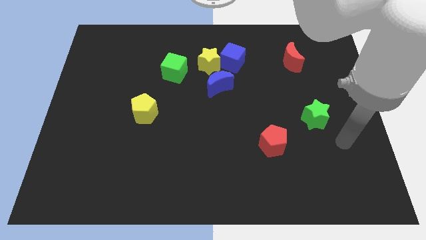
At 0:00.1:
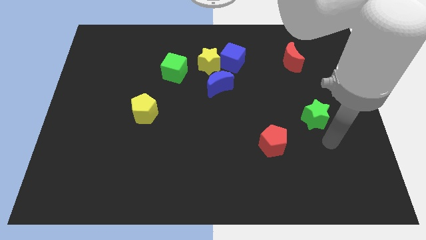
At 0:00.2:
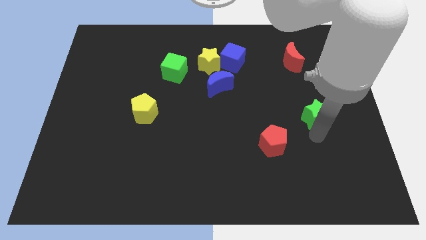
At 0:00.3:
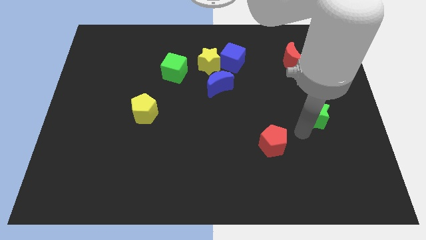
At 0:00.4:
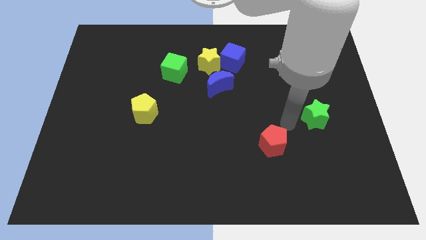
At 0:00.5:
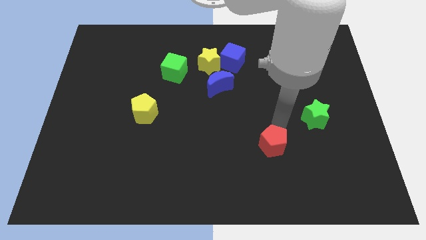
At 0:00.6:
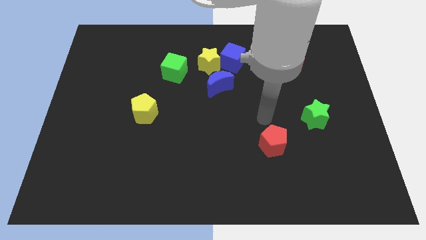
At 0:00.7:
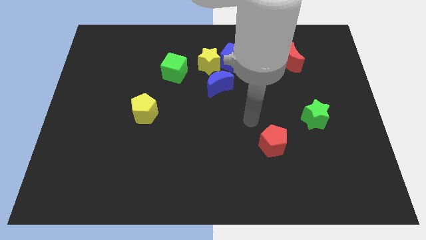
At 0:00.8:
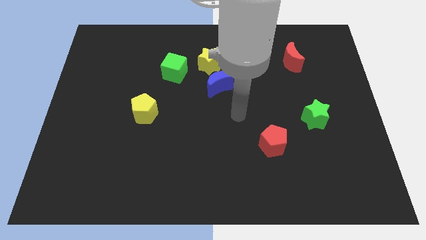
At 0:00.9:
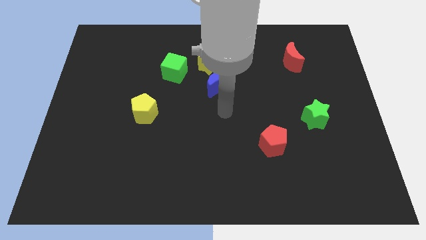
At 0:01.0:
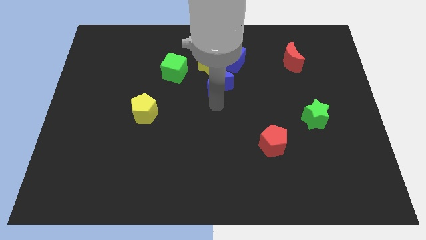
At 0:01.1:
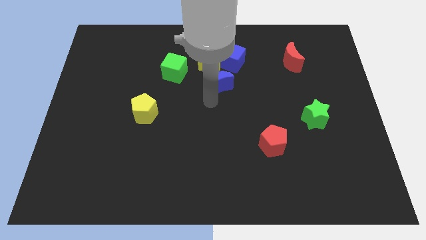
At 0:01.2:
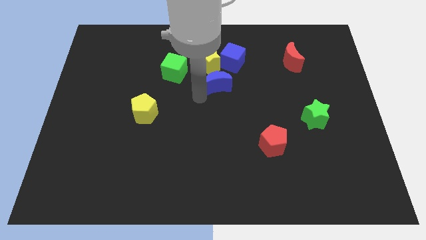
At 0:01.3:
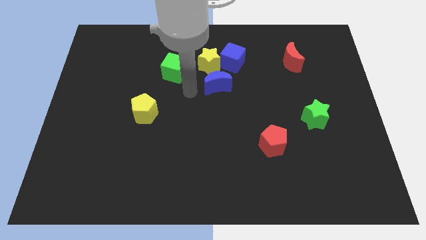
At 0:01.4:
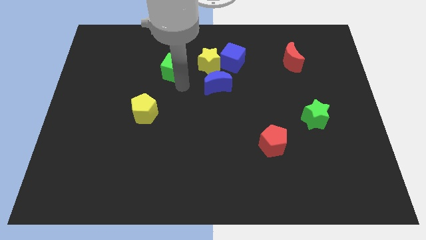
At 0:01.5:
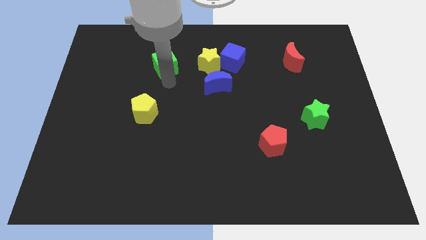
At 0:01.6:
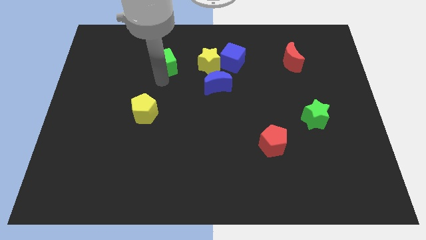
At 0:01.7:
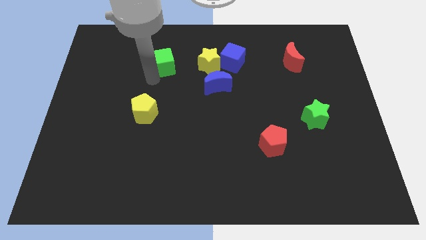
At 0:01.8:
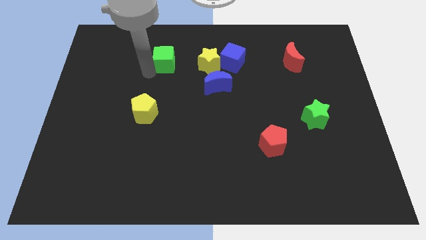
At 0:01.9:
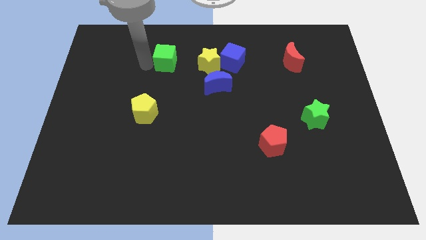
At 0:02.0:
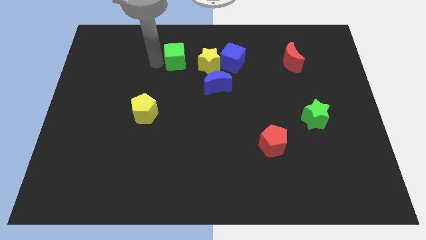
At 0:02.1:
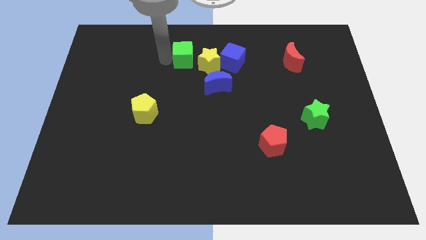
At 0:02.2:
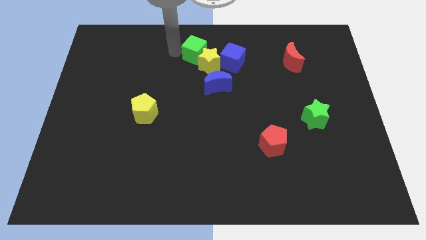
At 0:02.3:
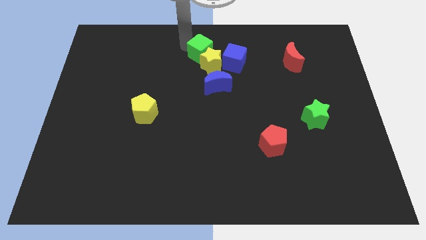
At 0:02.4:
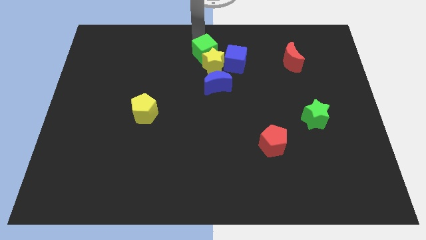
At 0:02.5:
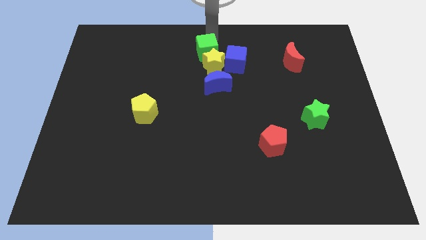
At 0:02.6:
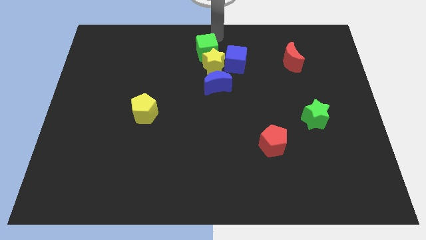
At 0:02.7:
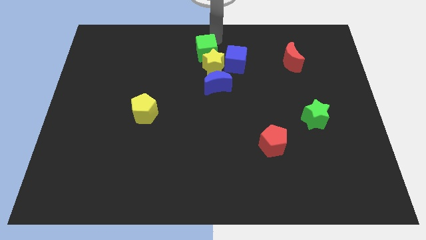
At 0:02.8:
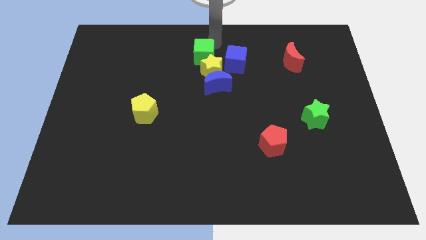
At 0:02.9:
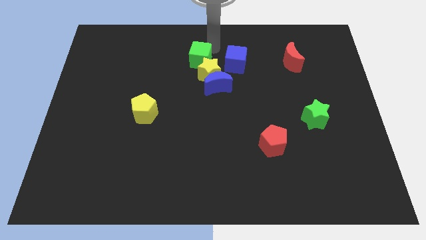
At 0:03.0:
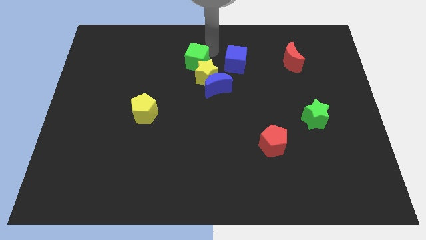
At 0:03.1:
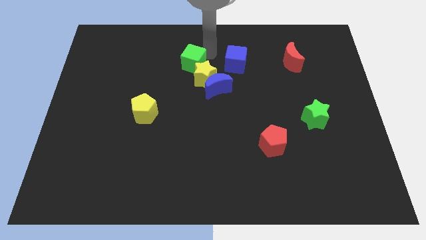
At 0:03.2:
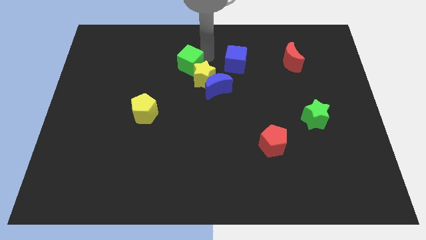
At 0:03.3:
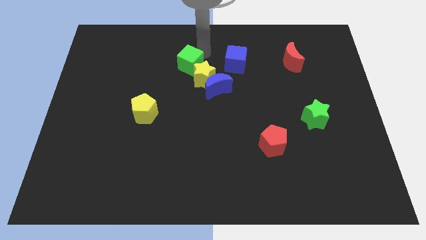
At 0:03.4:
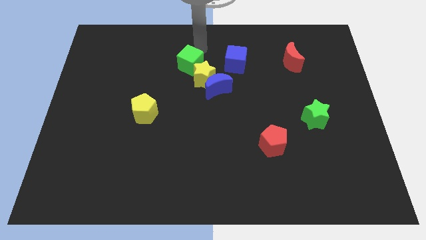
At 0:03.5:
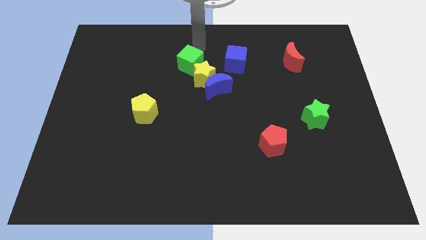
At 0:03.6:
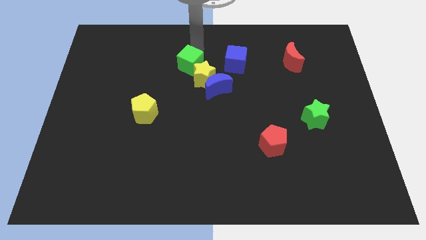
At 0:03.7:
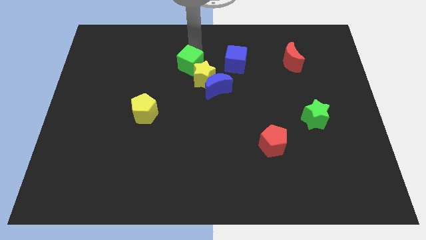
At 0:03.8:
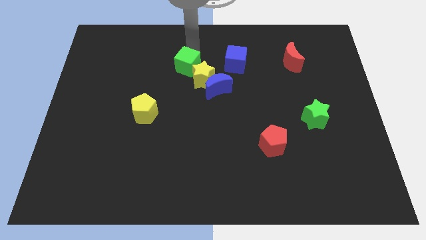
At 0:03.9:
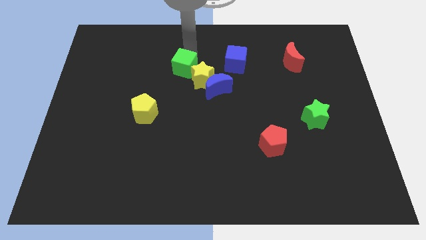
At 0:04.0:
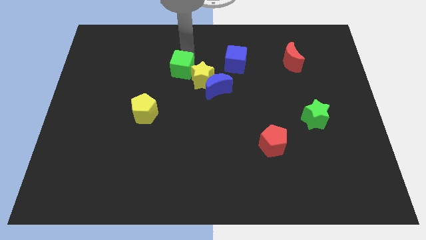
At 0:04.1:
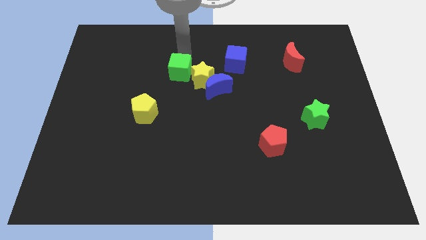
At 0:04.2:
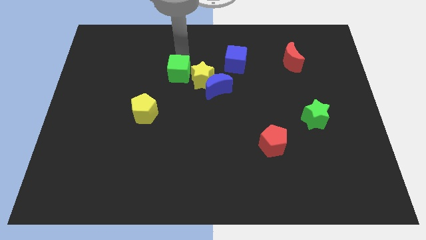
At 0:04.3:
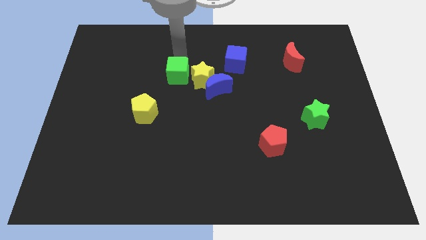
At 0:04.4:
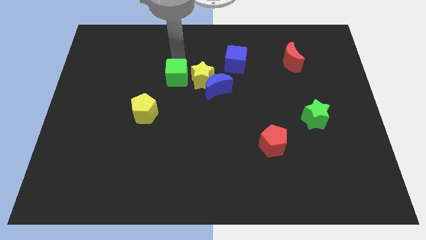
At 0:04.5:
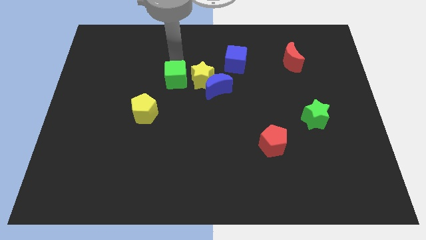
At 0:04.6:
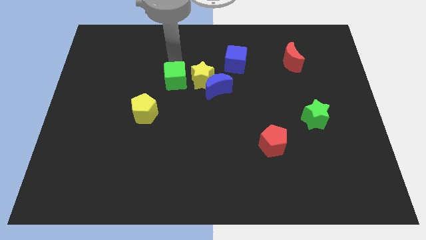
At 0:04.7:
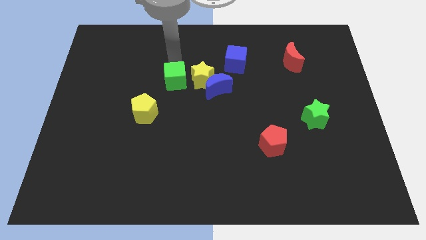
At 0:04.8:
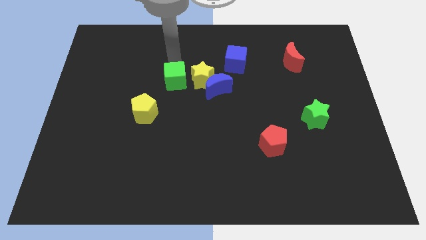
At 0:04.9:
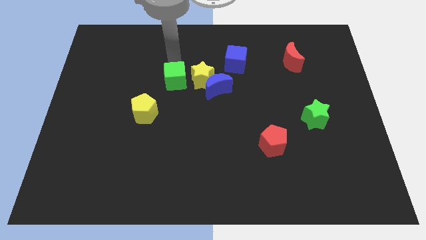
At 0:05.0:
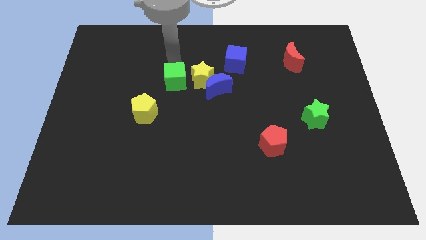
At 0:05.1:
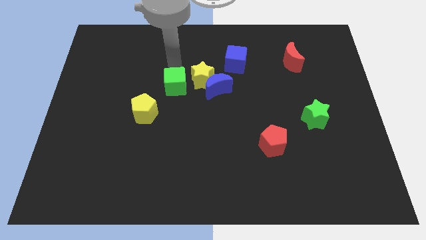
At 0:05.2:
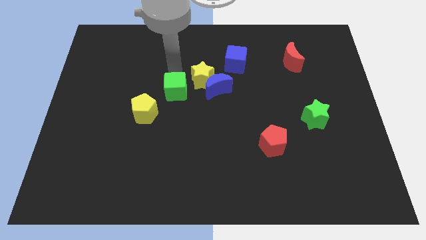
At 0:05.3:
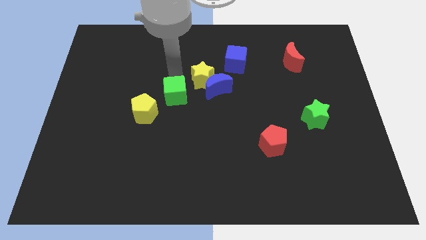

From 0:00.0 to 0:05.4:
slide the green cube somewhat downwards

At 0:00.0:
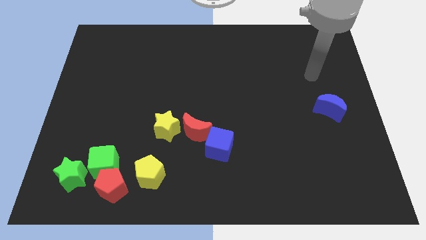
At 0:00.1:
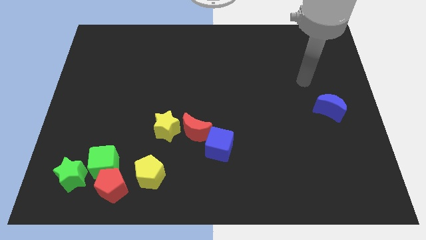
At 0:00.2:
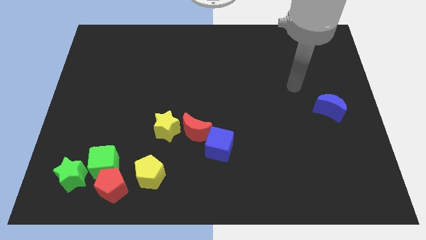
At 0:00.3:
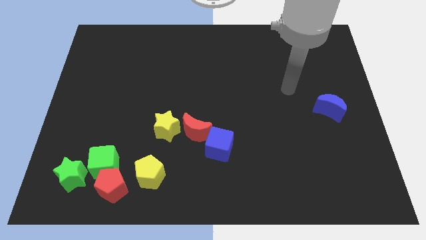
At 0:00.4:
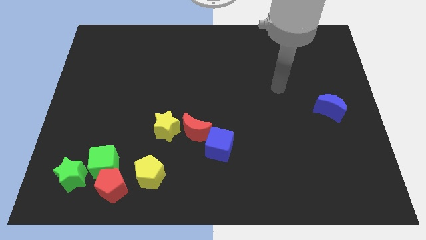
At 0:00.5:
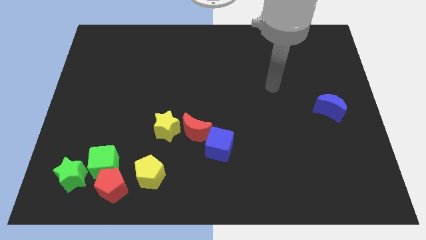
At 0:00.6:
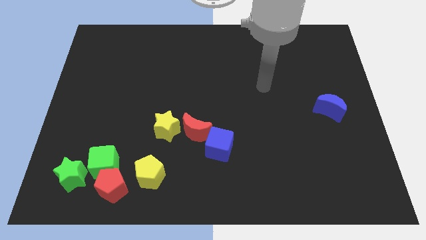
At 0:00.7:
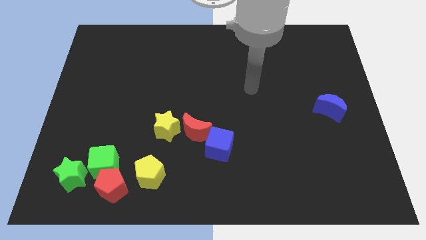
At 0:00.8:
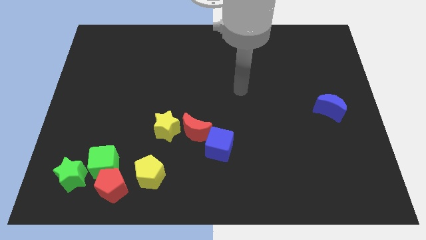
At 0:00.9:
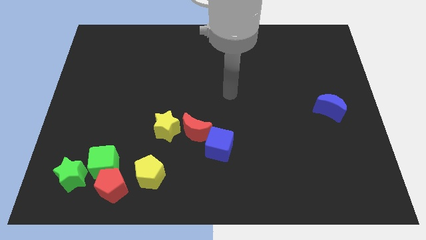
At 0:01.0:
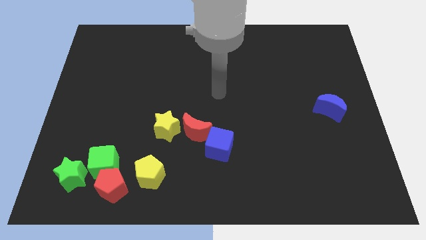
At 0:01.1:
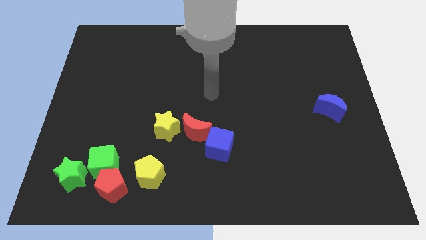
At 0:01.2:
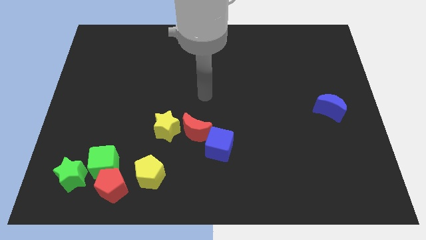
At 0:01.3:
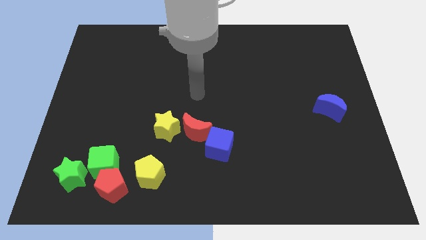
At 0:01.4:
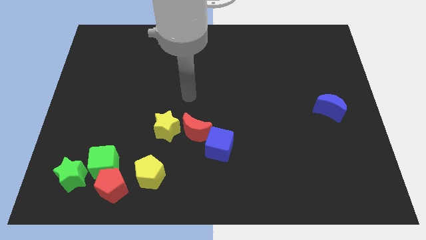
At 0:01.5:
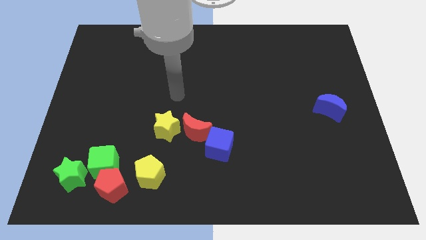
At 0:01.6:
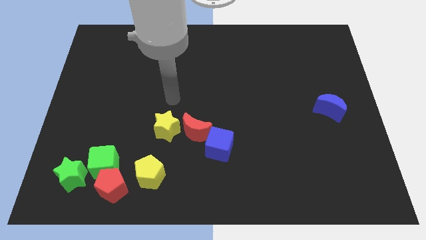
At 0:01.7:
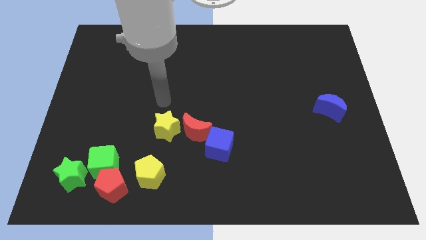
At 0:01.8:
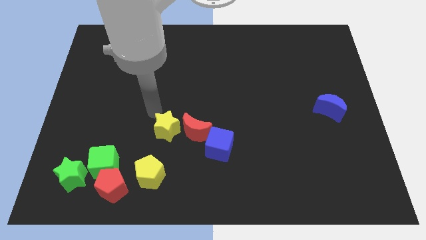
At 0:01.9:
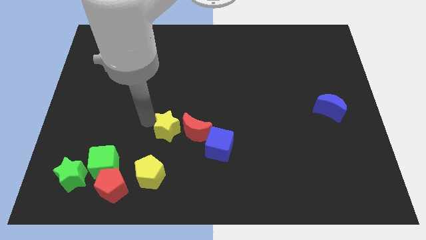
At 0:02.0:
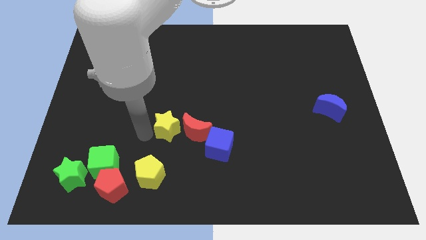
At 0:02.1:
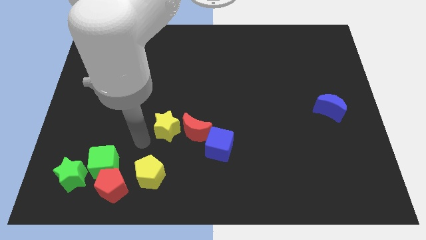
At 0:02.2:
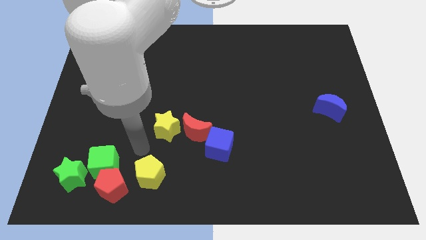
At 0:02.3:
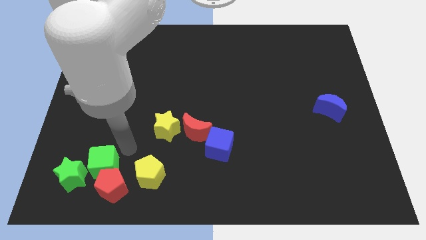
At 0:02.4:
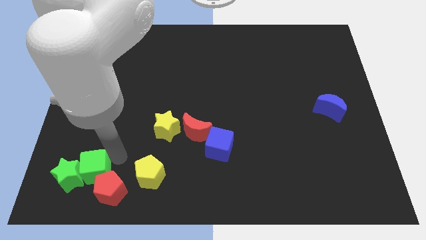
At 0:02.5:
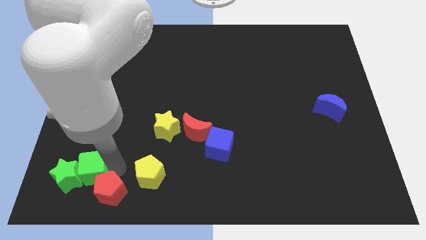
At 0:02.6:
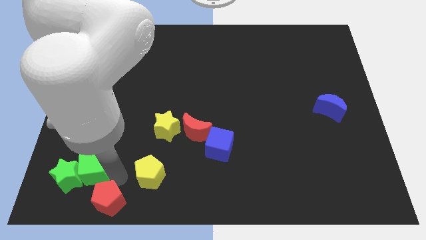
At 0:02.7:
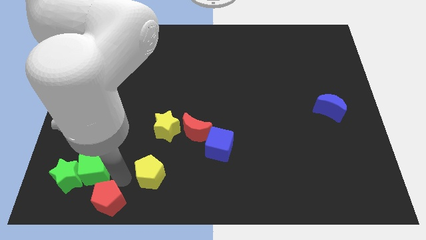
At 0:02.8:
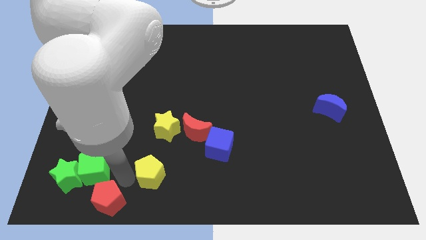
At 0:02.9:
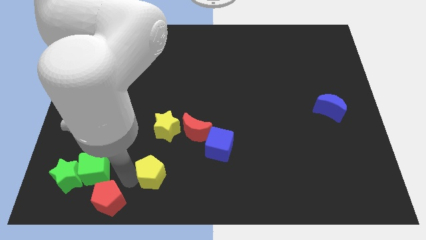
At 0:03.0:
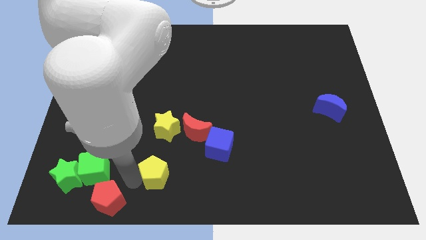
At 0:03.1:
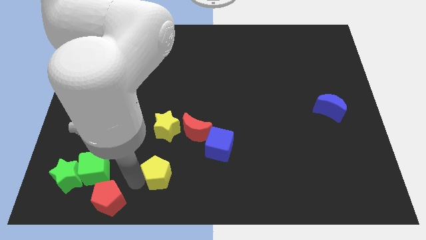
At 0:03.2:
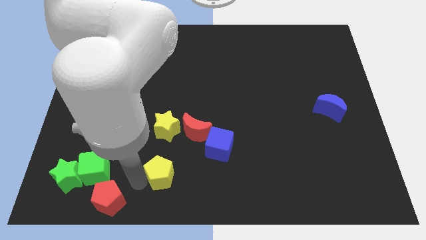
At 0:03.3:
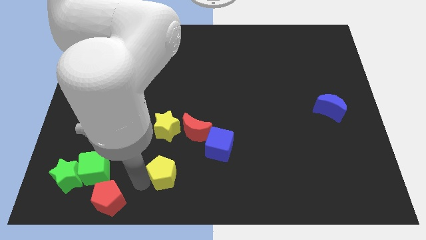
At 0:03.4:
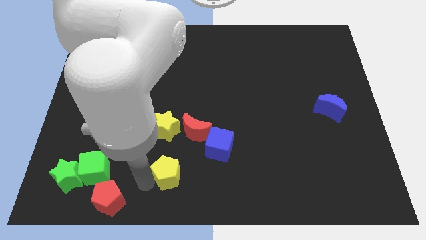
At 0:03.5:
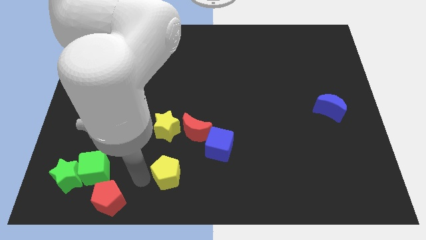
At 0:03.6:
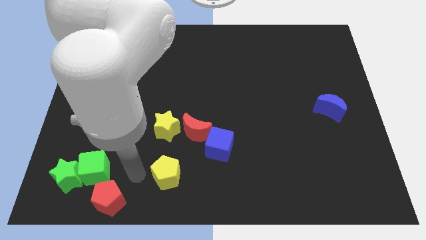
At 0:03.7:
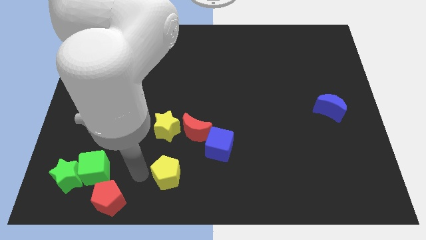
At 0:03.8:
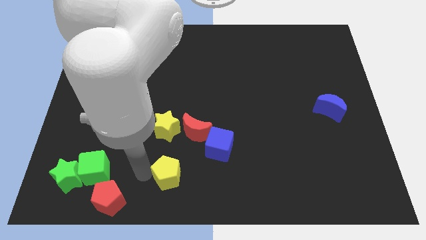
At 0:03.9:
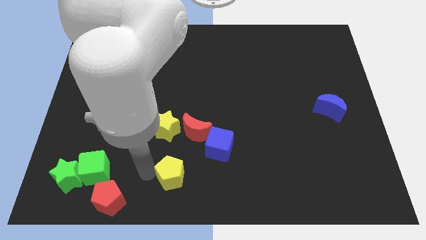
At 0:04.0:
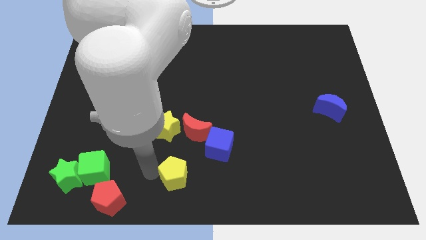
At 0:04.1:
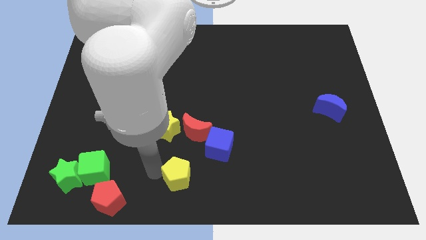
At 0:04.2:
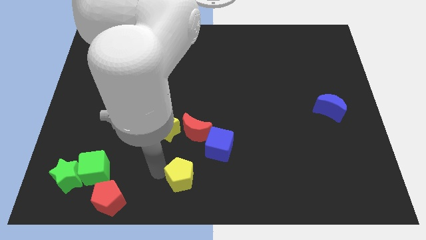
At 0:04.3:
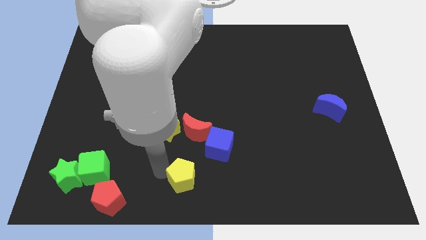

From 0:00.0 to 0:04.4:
slide the yellow pentagon slightly to the right
